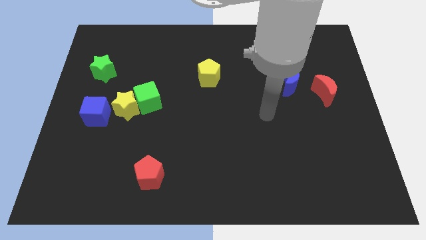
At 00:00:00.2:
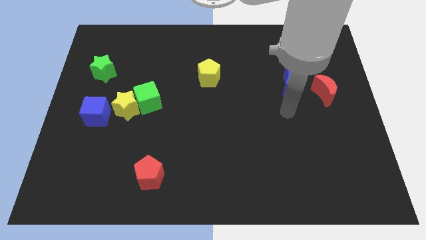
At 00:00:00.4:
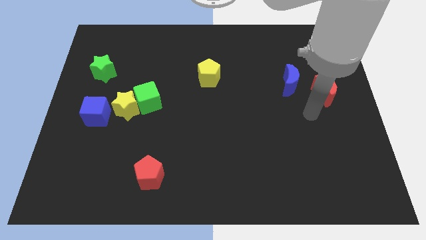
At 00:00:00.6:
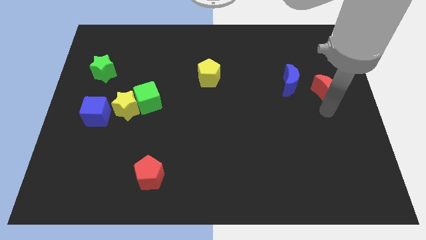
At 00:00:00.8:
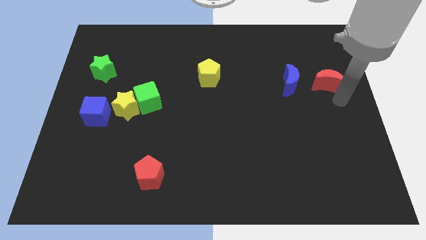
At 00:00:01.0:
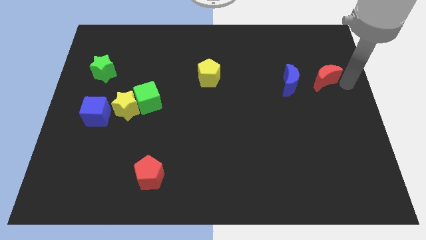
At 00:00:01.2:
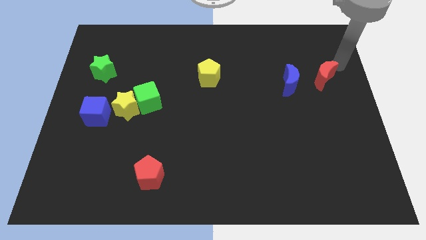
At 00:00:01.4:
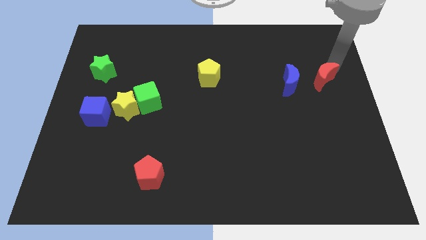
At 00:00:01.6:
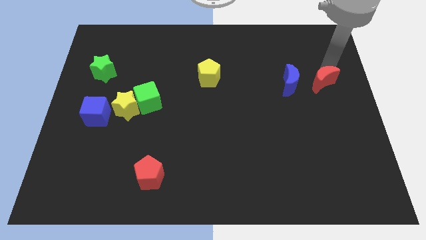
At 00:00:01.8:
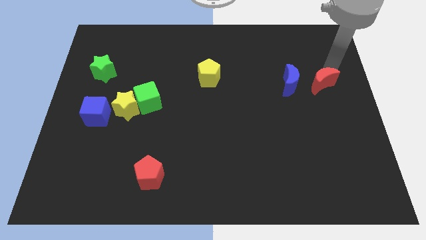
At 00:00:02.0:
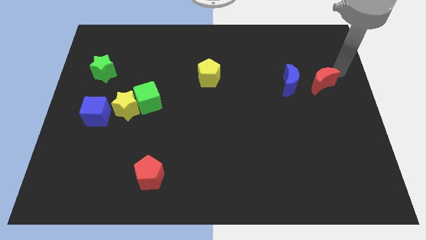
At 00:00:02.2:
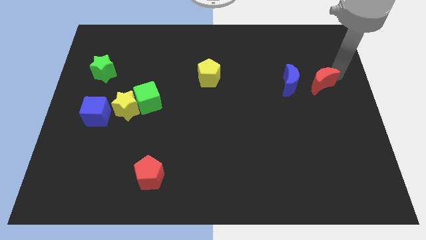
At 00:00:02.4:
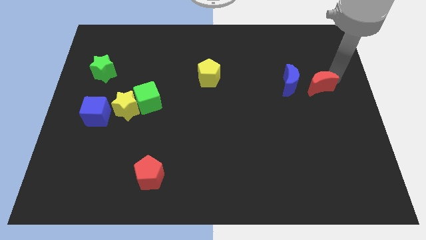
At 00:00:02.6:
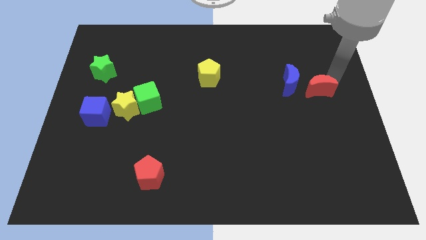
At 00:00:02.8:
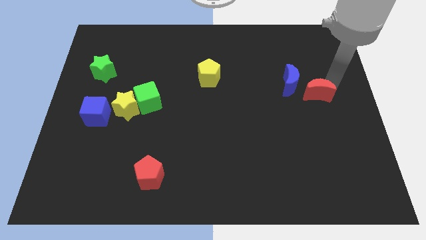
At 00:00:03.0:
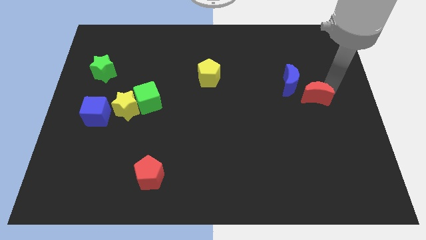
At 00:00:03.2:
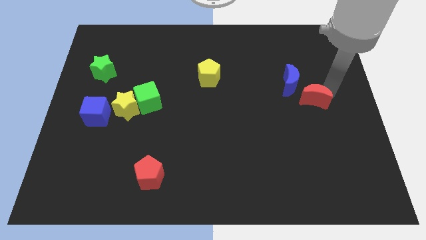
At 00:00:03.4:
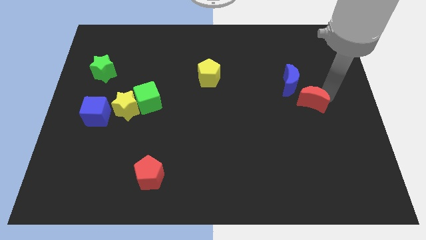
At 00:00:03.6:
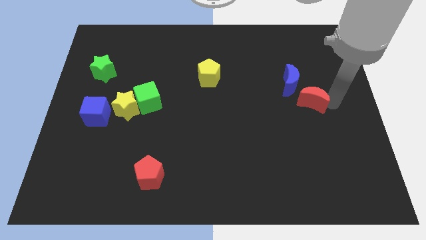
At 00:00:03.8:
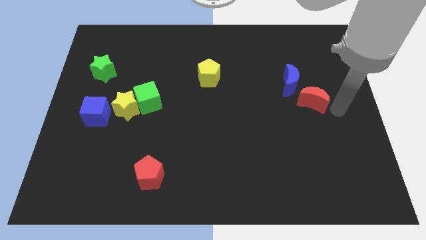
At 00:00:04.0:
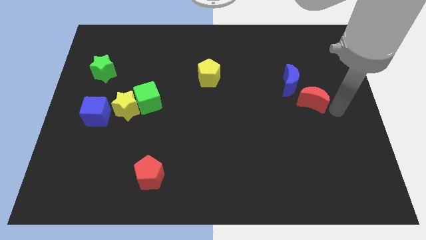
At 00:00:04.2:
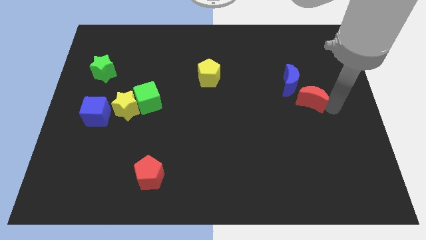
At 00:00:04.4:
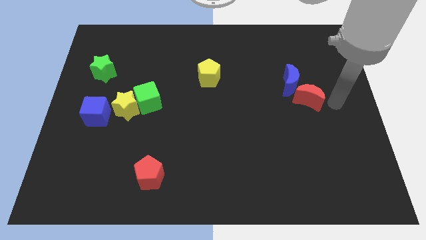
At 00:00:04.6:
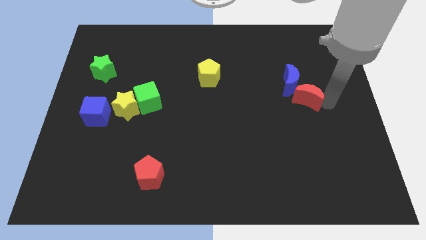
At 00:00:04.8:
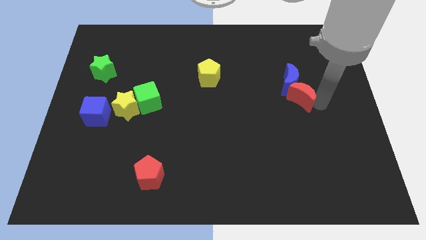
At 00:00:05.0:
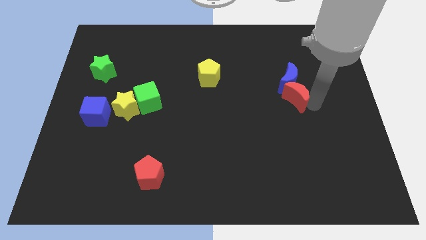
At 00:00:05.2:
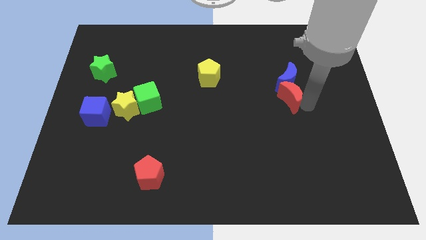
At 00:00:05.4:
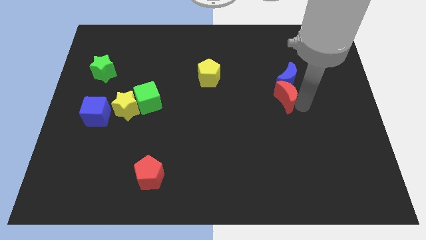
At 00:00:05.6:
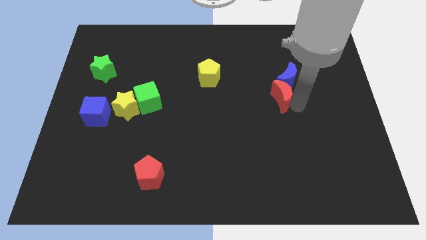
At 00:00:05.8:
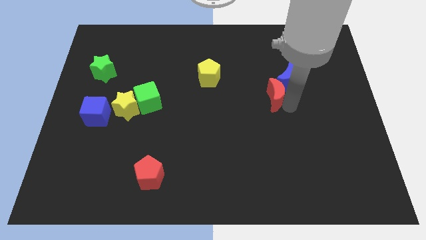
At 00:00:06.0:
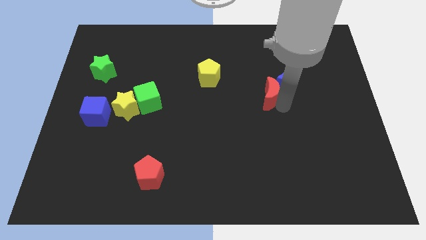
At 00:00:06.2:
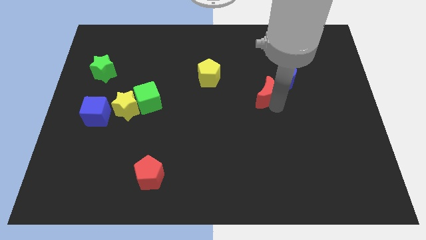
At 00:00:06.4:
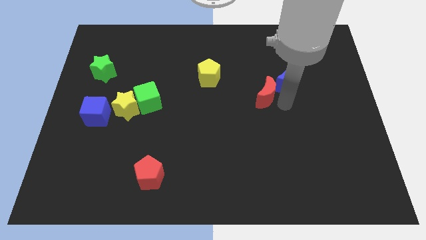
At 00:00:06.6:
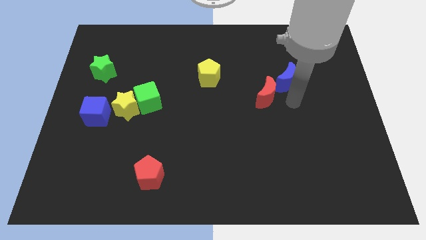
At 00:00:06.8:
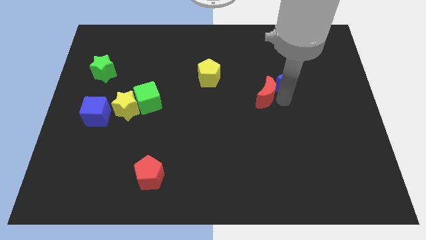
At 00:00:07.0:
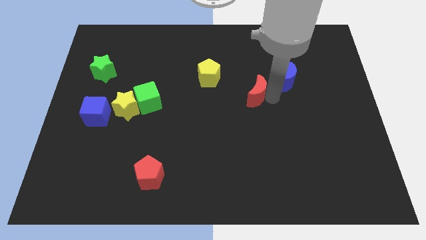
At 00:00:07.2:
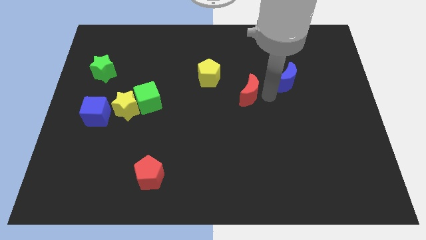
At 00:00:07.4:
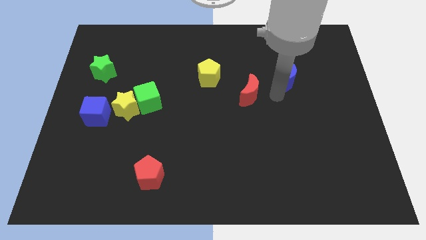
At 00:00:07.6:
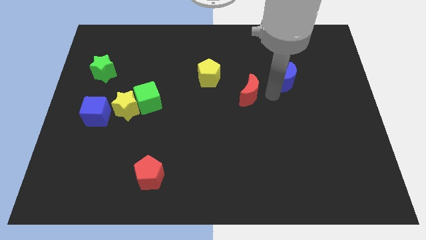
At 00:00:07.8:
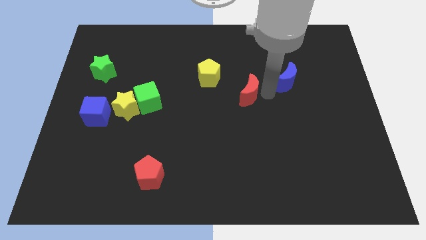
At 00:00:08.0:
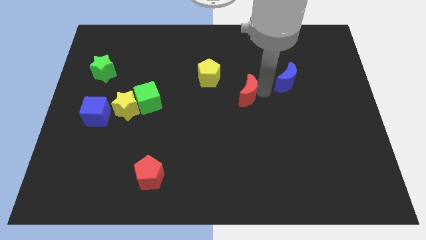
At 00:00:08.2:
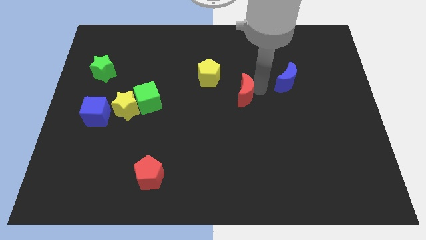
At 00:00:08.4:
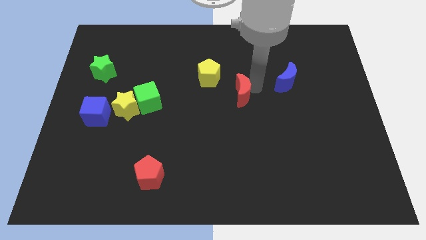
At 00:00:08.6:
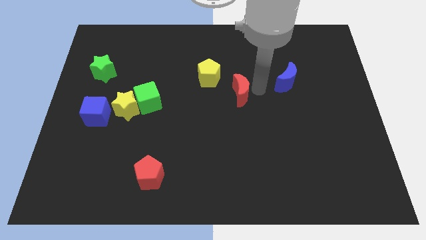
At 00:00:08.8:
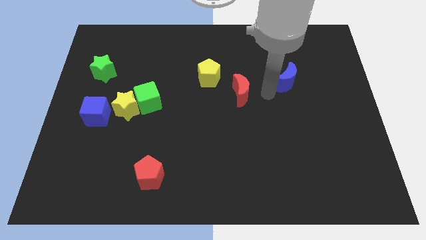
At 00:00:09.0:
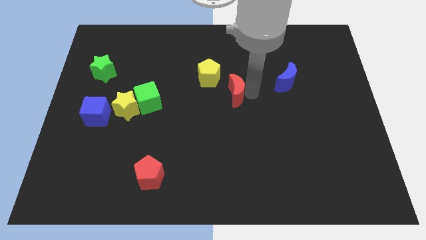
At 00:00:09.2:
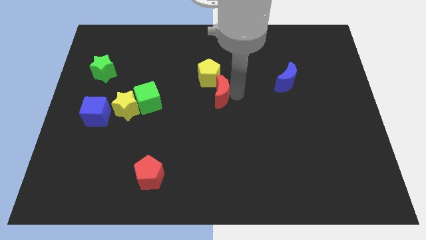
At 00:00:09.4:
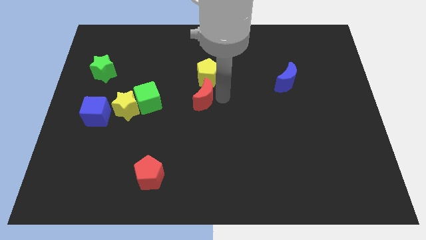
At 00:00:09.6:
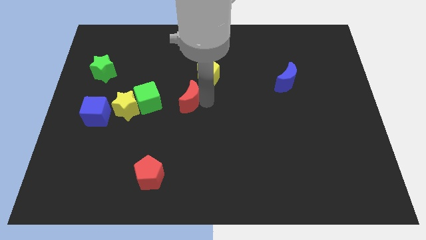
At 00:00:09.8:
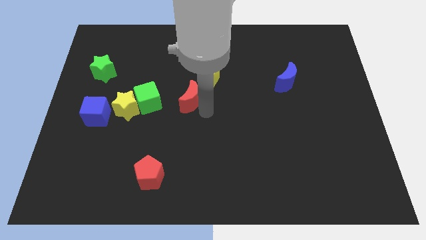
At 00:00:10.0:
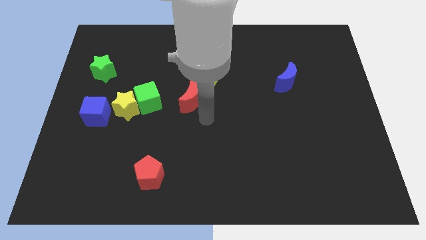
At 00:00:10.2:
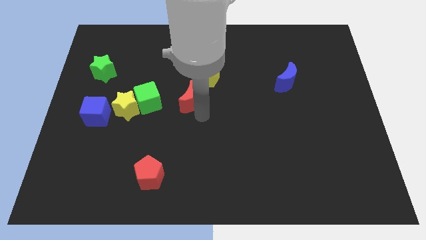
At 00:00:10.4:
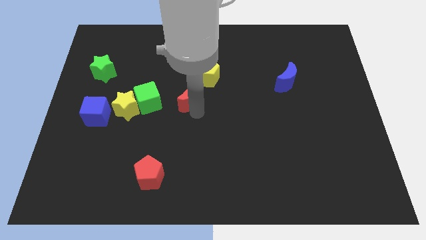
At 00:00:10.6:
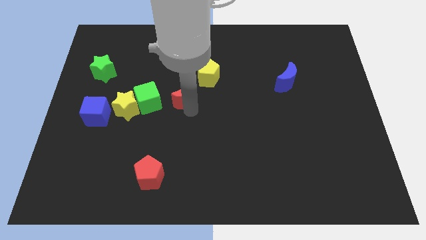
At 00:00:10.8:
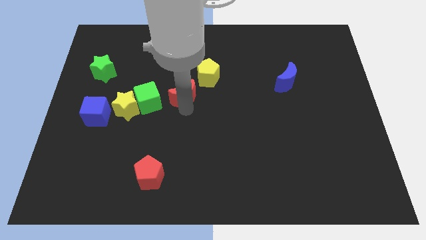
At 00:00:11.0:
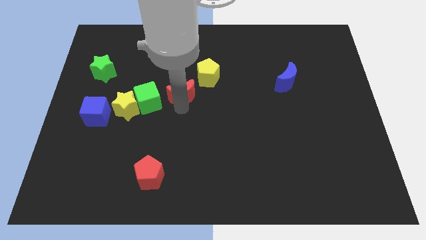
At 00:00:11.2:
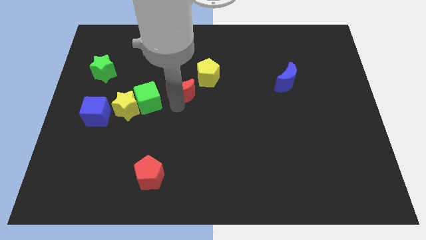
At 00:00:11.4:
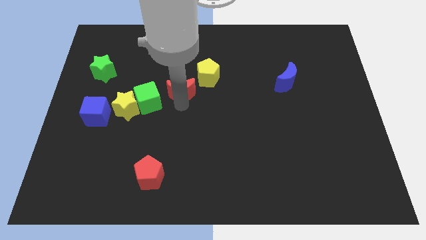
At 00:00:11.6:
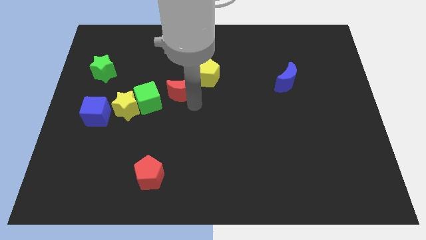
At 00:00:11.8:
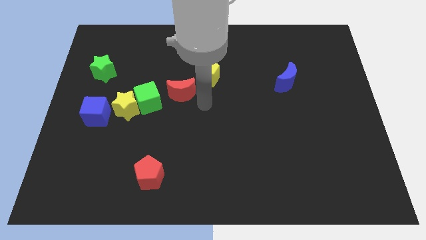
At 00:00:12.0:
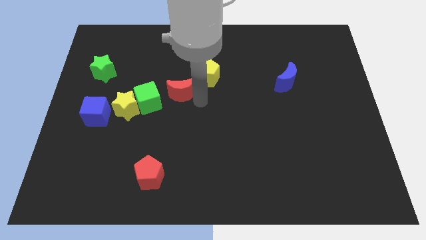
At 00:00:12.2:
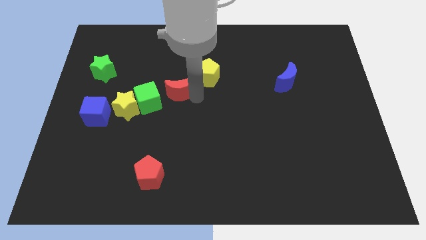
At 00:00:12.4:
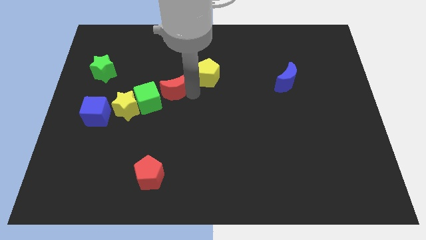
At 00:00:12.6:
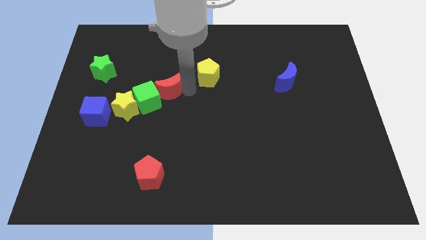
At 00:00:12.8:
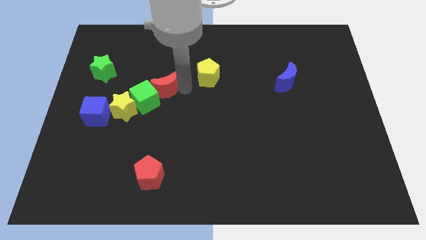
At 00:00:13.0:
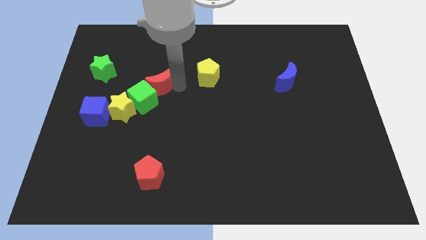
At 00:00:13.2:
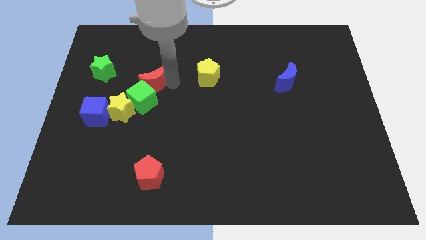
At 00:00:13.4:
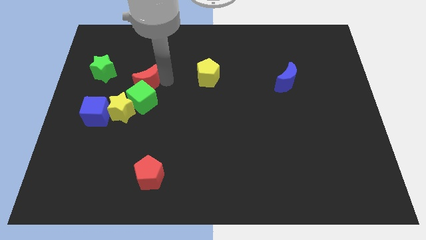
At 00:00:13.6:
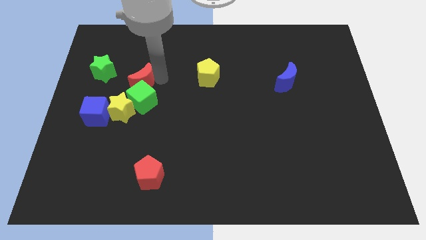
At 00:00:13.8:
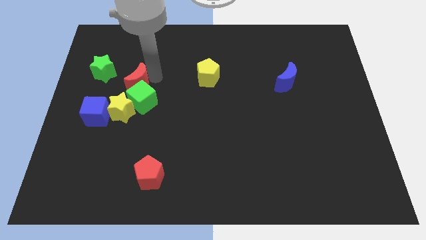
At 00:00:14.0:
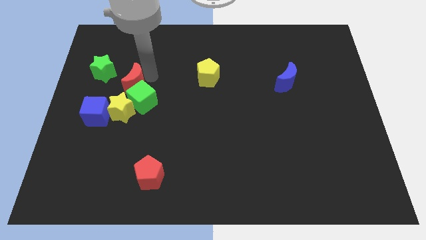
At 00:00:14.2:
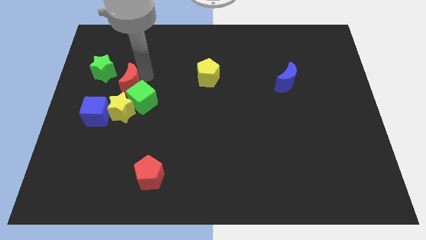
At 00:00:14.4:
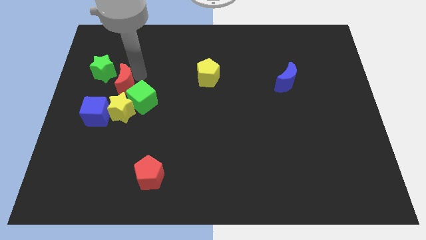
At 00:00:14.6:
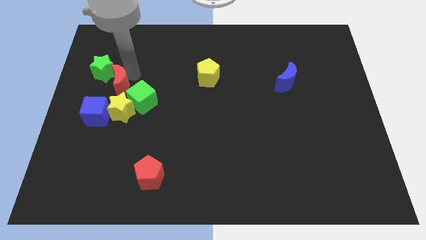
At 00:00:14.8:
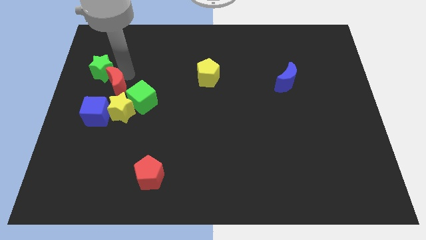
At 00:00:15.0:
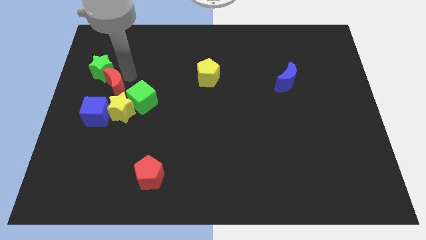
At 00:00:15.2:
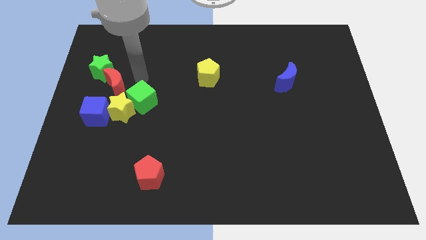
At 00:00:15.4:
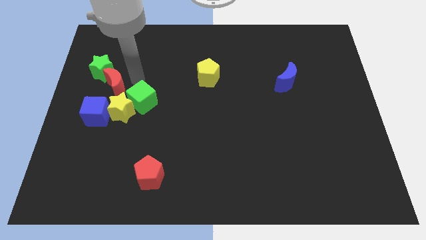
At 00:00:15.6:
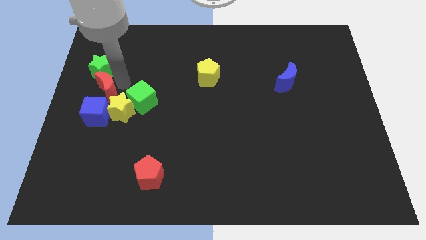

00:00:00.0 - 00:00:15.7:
put the red moon to the left side of the board
